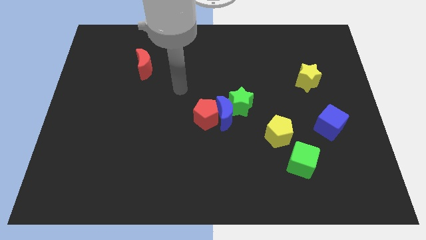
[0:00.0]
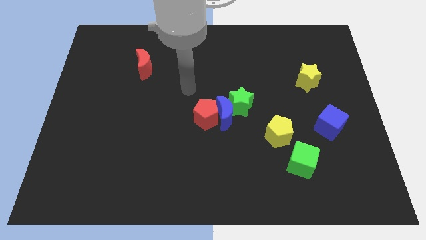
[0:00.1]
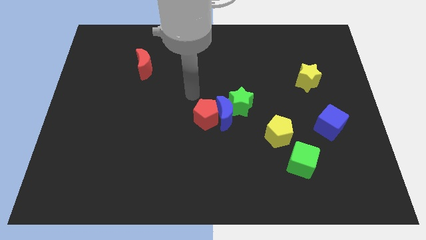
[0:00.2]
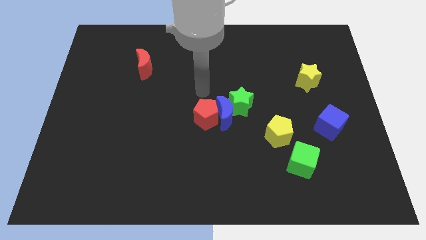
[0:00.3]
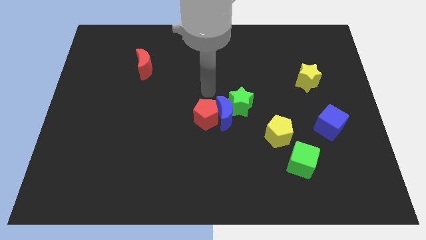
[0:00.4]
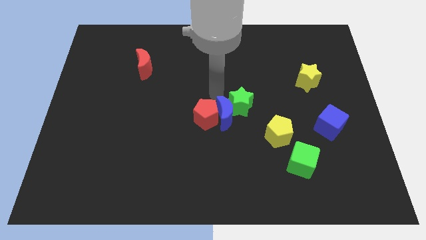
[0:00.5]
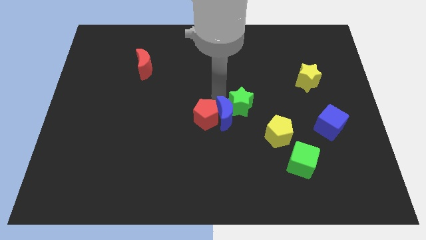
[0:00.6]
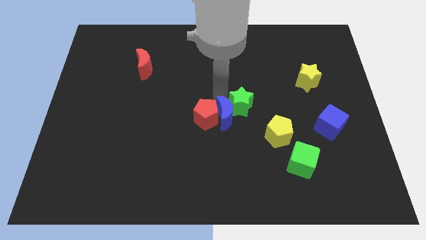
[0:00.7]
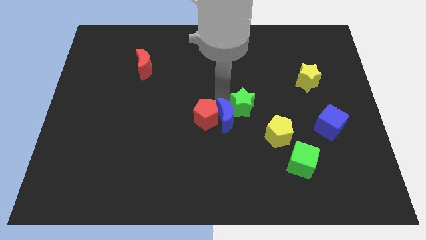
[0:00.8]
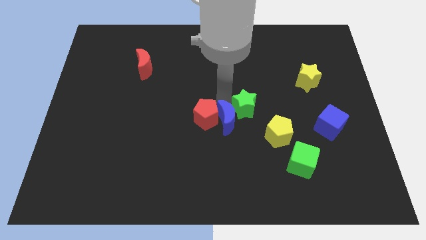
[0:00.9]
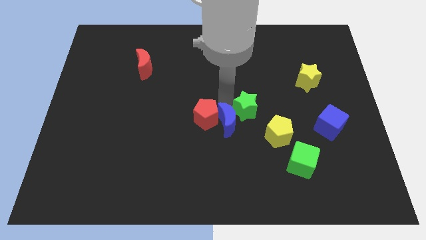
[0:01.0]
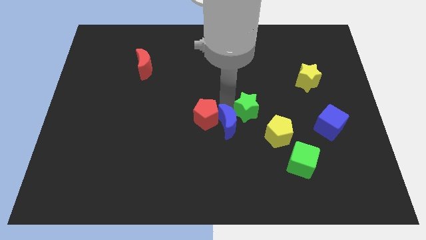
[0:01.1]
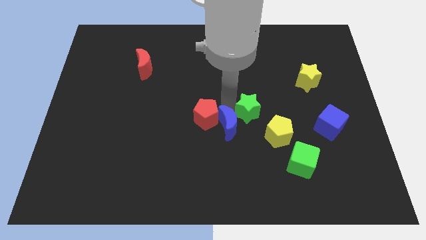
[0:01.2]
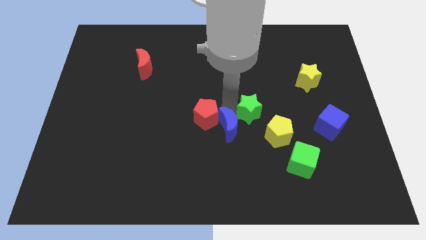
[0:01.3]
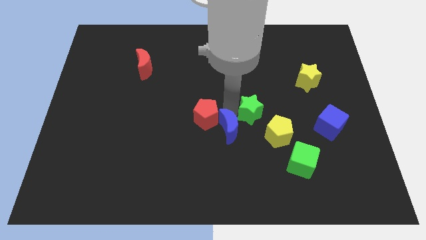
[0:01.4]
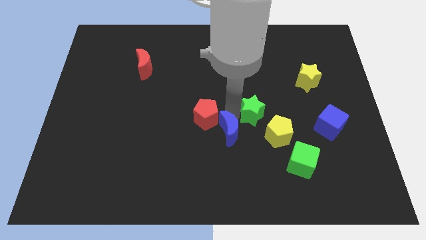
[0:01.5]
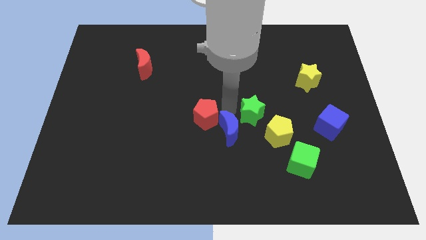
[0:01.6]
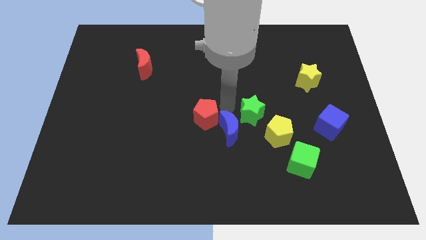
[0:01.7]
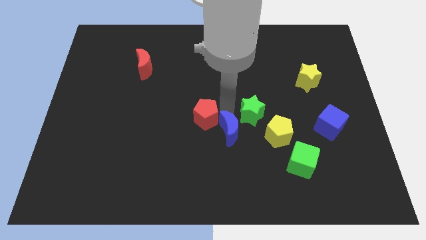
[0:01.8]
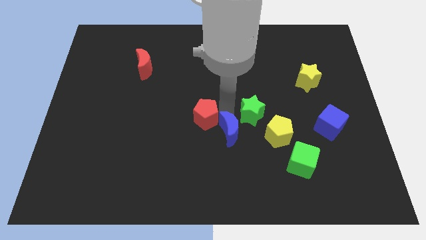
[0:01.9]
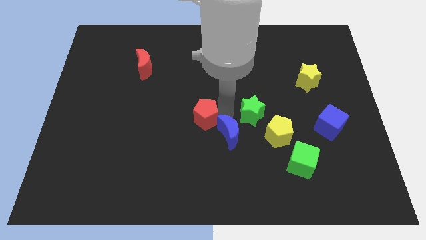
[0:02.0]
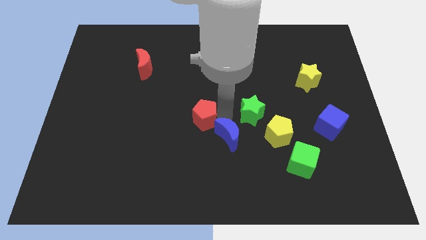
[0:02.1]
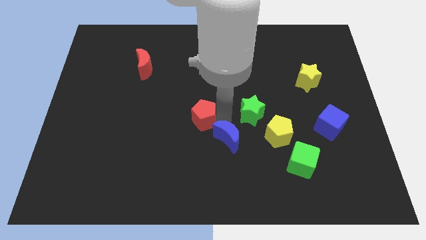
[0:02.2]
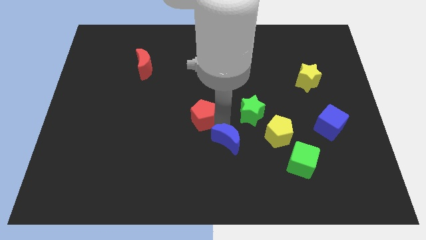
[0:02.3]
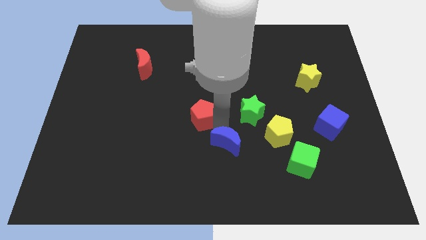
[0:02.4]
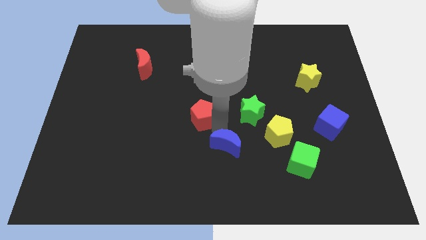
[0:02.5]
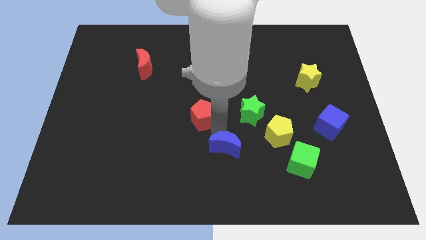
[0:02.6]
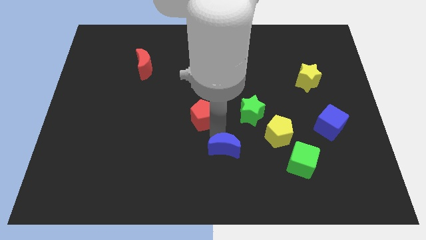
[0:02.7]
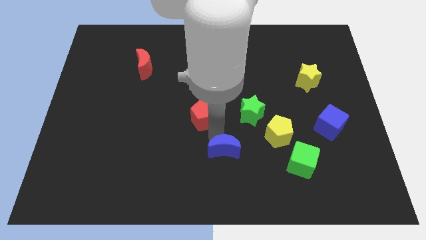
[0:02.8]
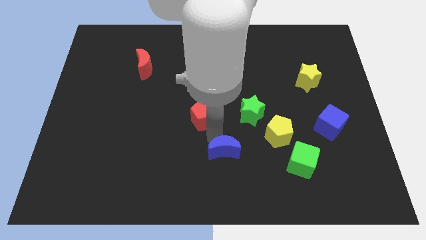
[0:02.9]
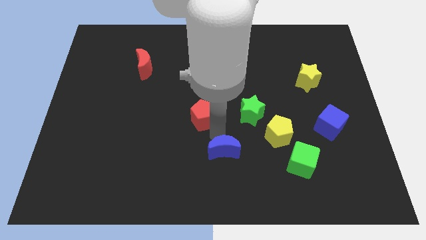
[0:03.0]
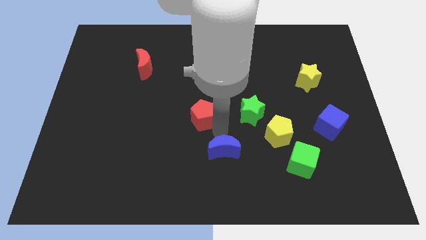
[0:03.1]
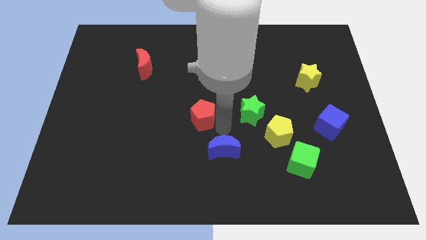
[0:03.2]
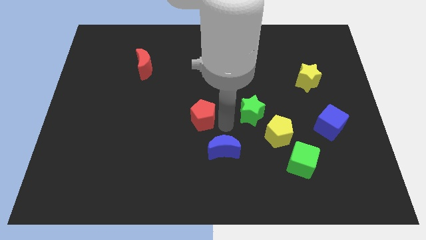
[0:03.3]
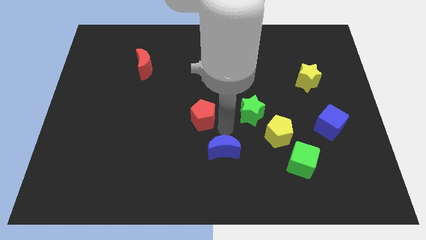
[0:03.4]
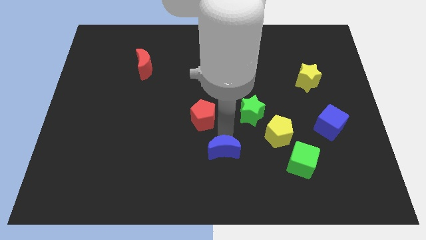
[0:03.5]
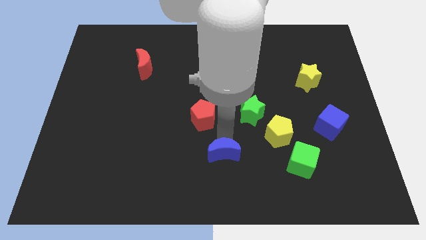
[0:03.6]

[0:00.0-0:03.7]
pull the blue moon apart from the red pentagon and green star

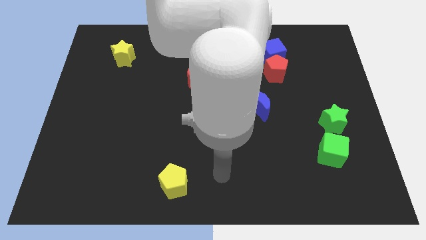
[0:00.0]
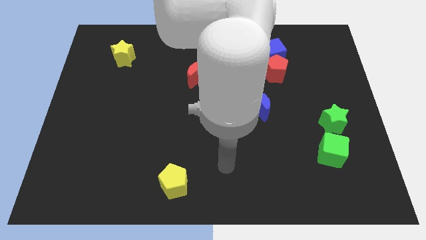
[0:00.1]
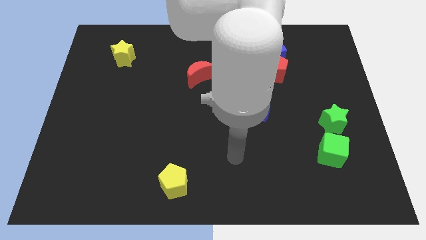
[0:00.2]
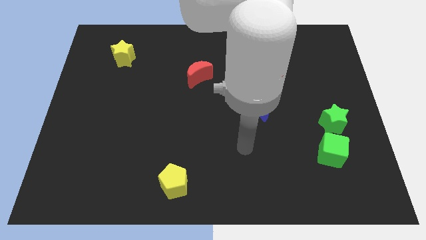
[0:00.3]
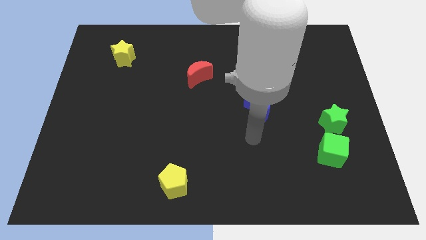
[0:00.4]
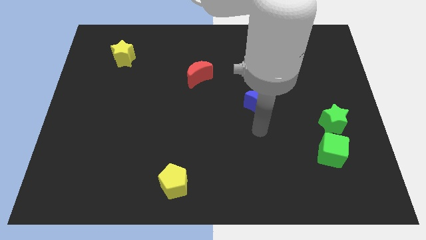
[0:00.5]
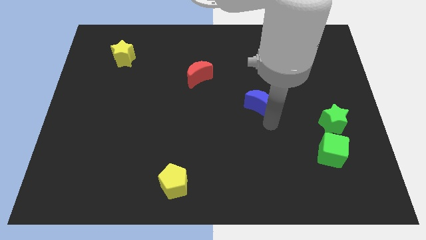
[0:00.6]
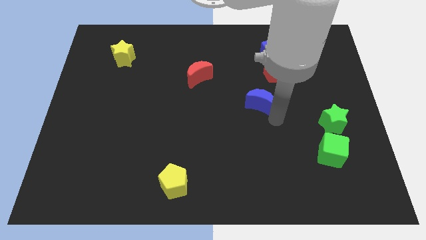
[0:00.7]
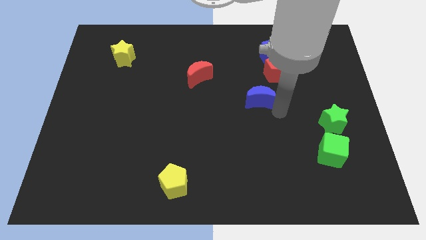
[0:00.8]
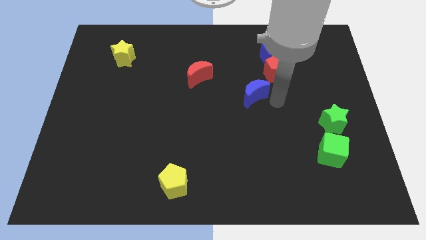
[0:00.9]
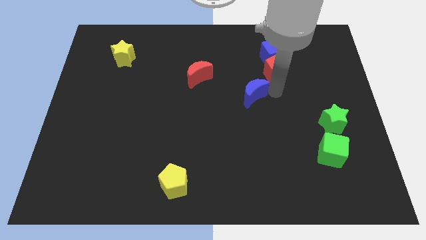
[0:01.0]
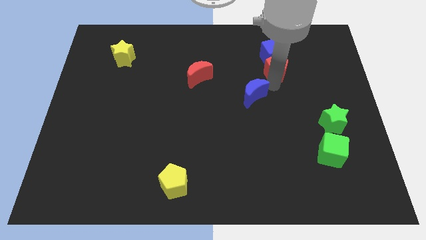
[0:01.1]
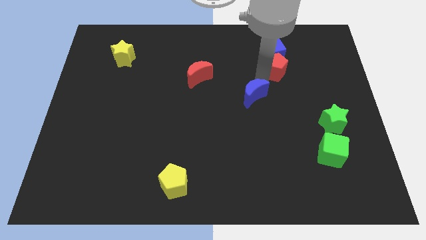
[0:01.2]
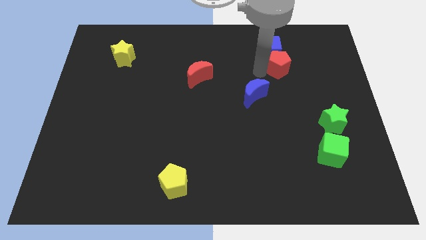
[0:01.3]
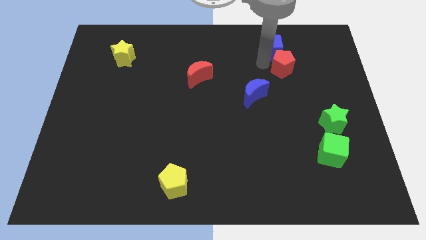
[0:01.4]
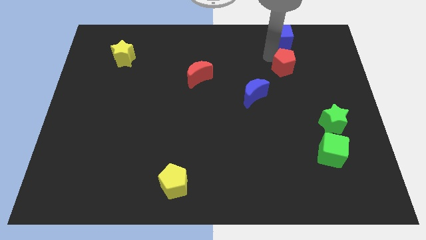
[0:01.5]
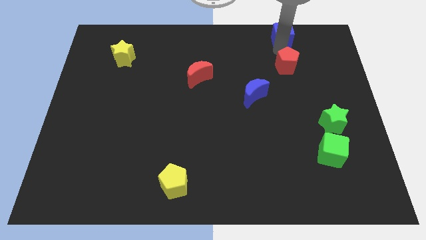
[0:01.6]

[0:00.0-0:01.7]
move the red pentagon away from the blue cube

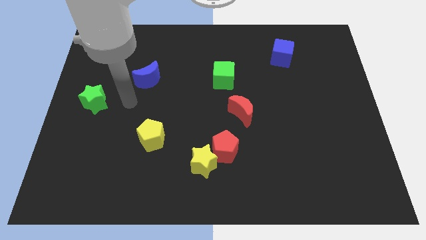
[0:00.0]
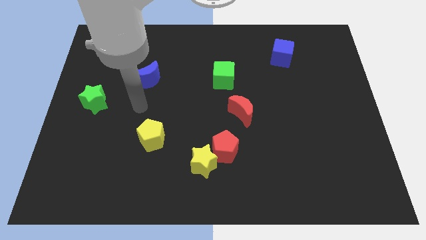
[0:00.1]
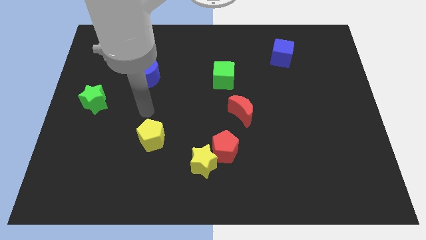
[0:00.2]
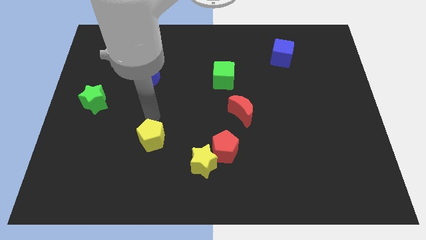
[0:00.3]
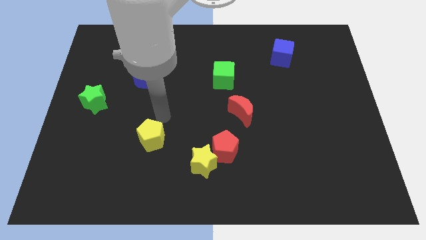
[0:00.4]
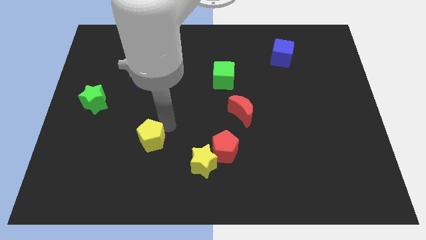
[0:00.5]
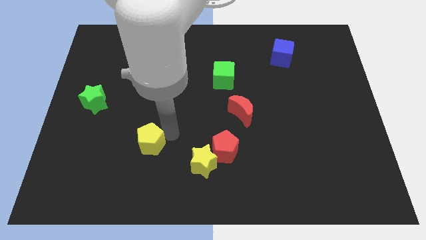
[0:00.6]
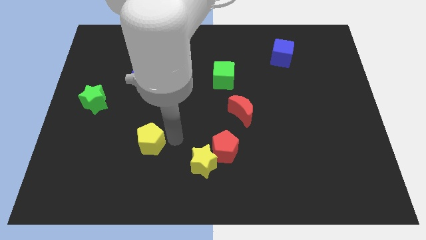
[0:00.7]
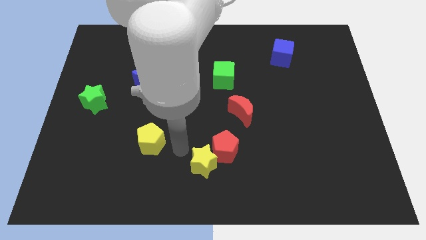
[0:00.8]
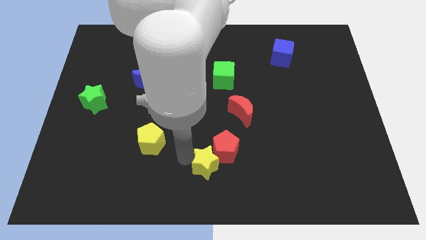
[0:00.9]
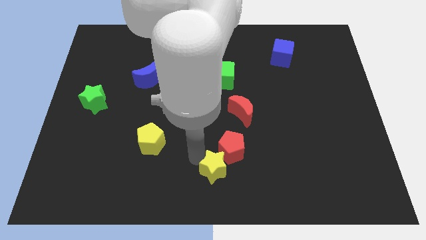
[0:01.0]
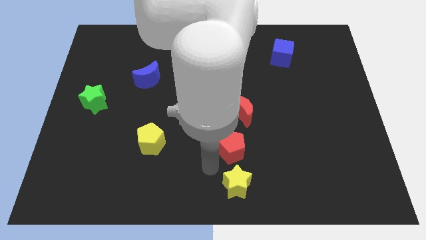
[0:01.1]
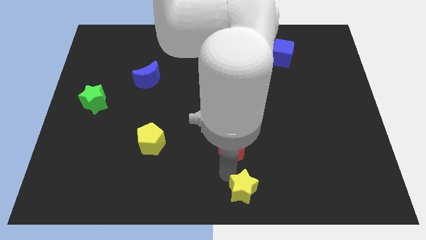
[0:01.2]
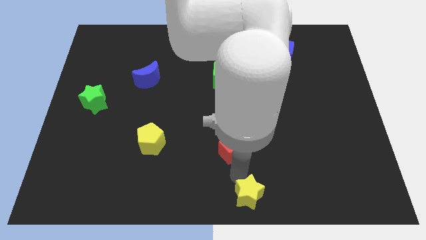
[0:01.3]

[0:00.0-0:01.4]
move the red pentagon away from the yellow star

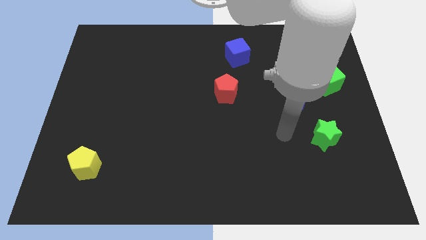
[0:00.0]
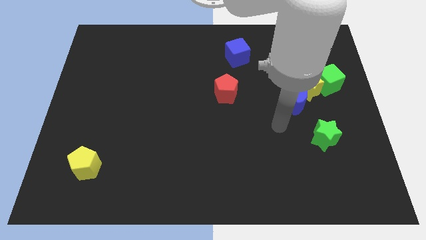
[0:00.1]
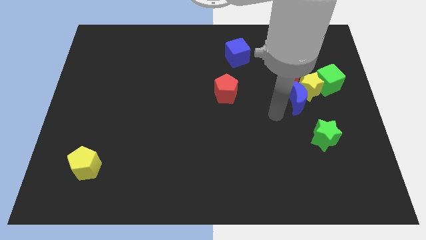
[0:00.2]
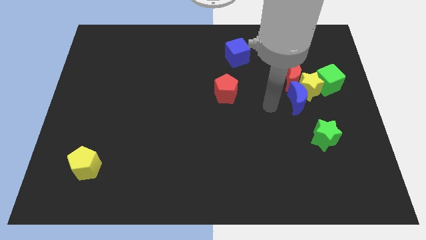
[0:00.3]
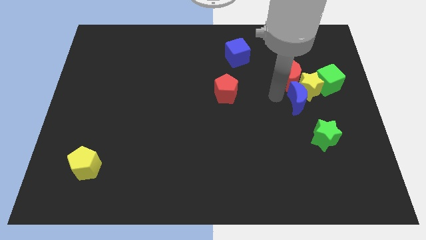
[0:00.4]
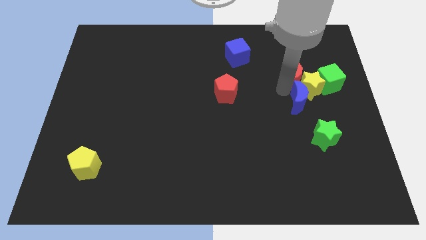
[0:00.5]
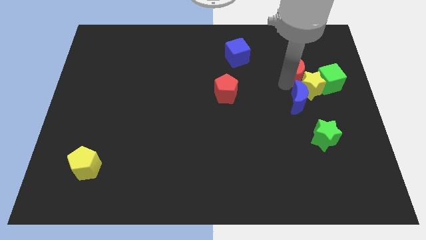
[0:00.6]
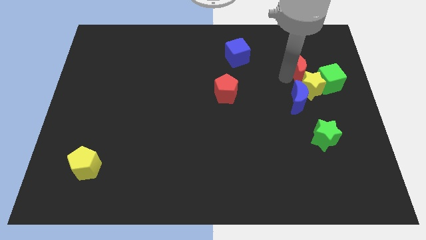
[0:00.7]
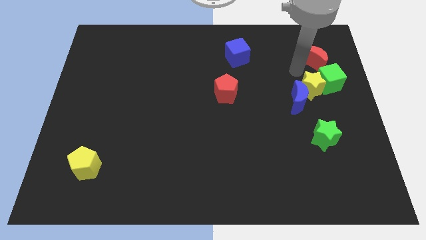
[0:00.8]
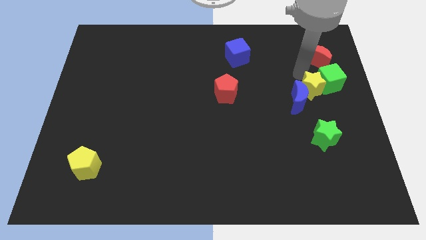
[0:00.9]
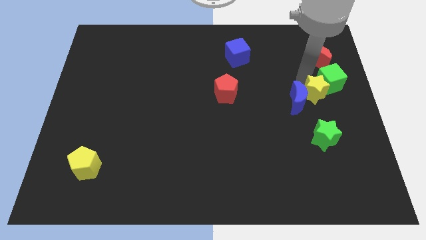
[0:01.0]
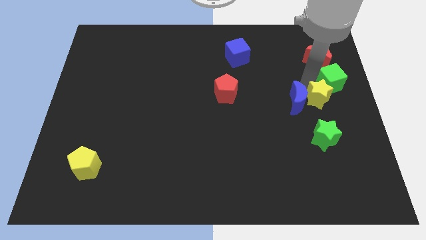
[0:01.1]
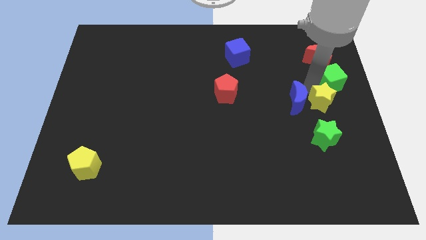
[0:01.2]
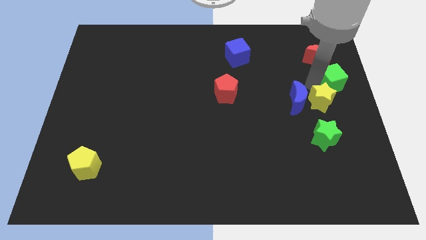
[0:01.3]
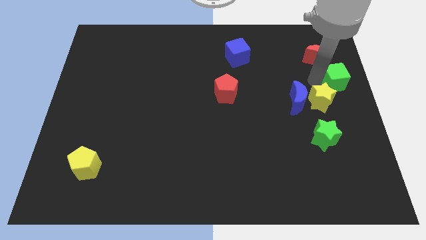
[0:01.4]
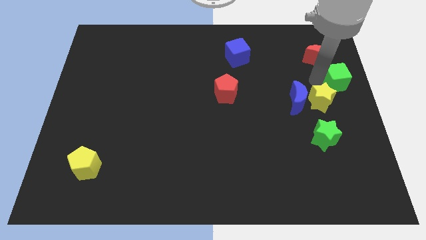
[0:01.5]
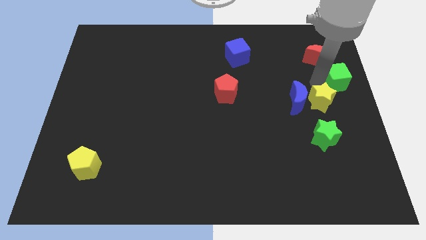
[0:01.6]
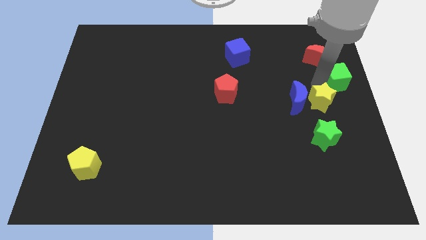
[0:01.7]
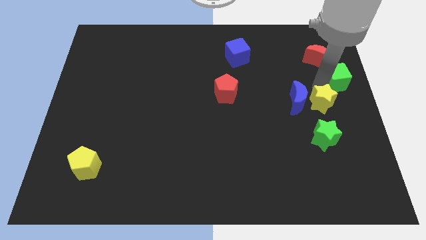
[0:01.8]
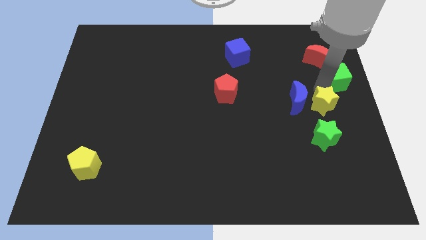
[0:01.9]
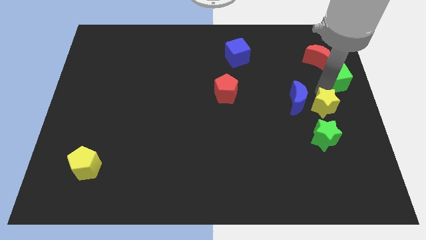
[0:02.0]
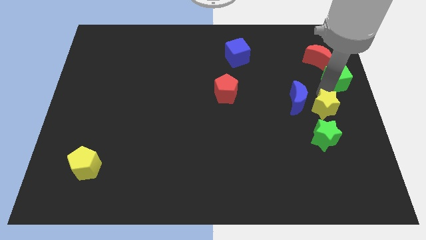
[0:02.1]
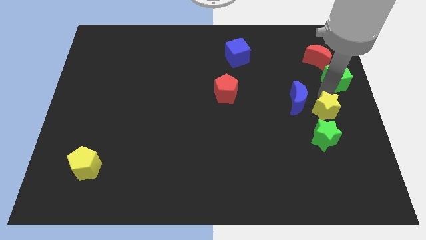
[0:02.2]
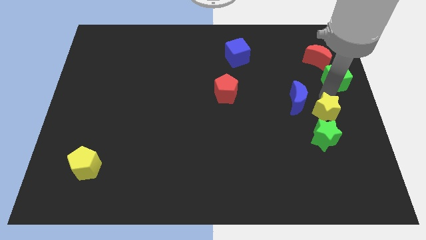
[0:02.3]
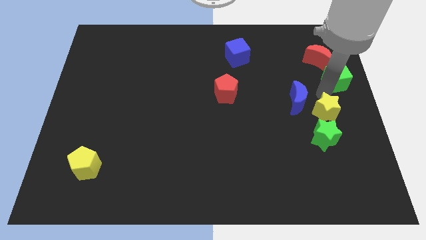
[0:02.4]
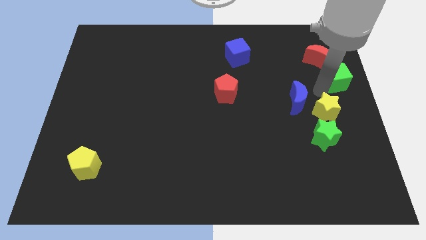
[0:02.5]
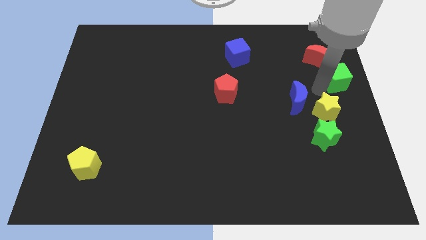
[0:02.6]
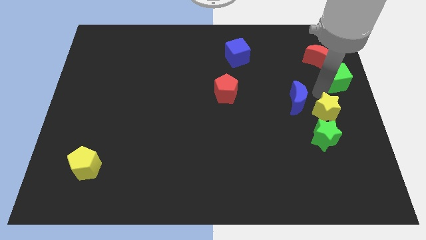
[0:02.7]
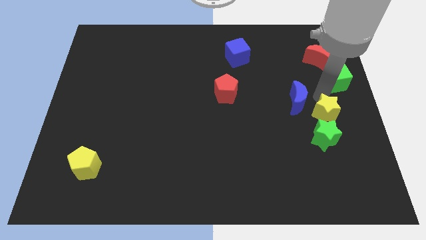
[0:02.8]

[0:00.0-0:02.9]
pull the yellow star apart from the blue moon, red moon, and green cube
